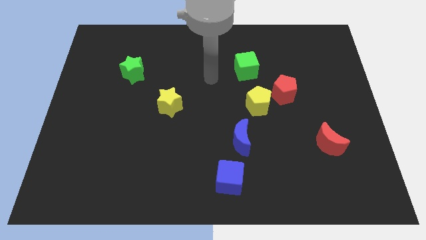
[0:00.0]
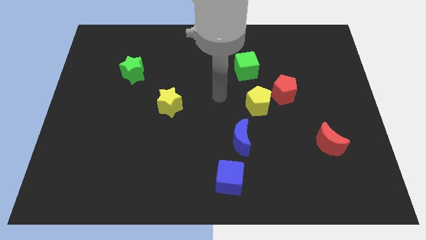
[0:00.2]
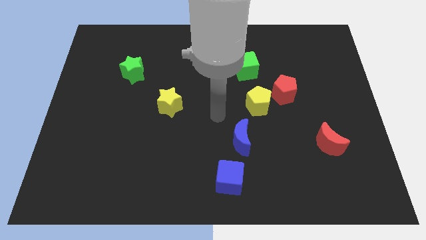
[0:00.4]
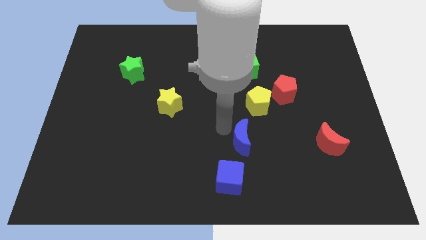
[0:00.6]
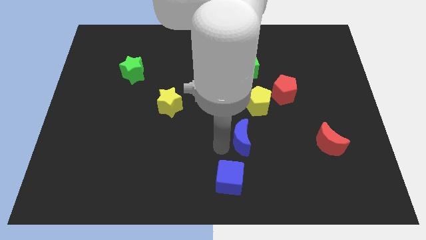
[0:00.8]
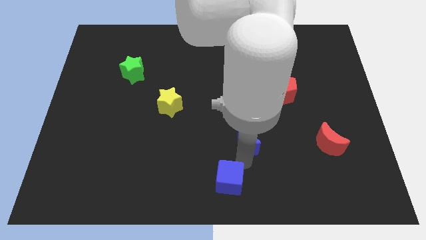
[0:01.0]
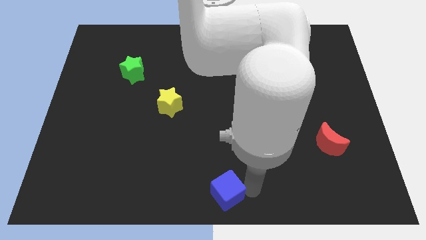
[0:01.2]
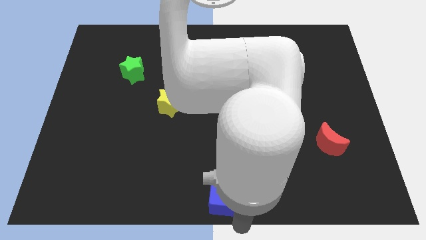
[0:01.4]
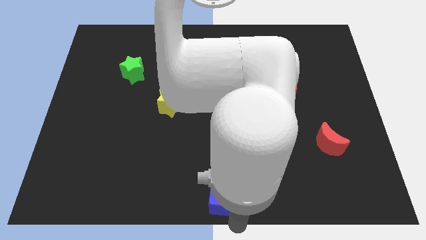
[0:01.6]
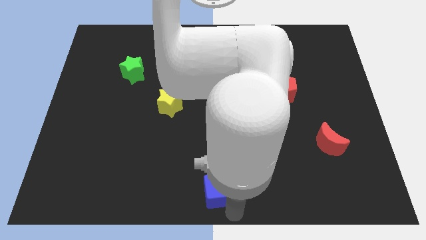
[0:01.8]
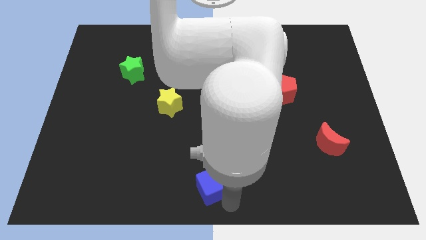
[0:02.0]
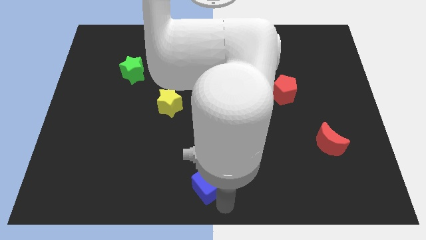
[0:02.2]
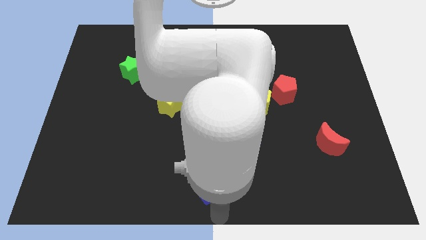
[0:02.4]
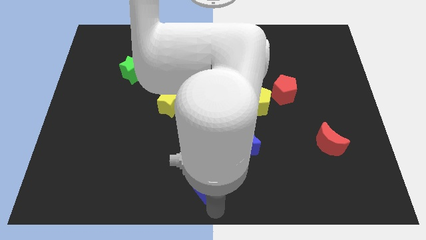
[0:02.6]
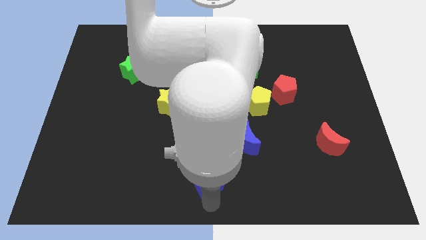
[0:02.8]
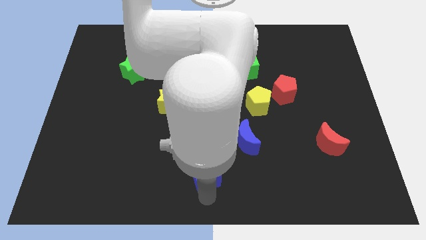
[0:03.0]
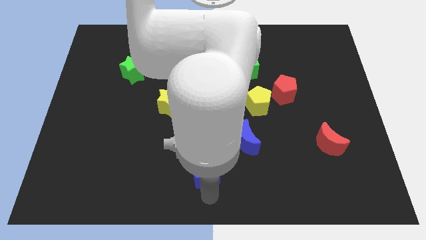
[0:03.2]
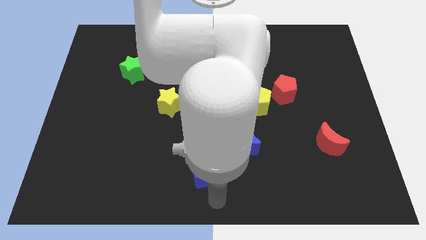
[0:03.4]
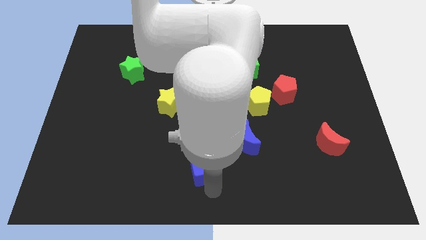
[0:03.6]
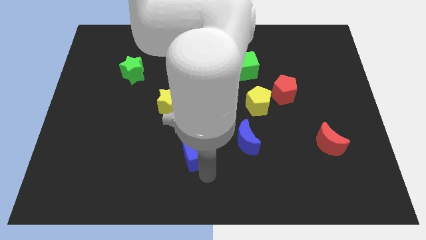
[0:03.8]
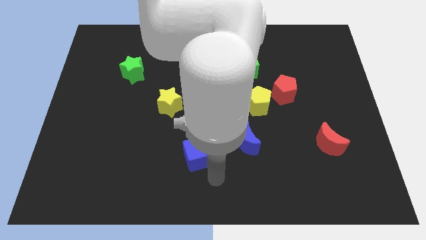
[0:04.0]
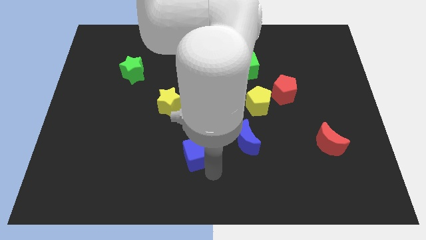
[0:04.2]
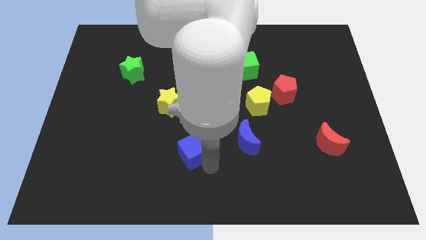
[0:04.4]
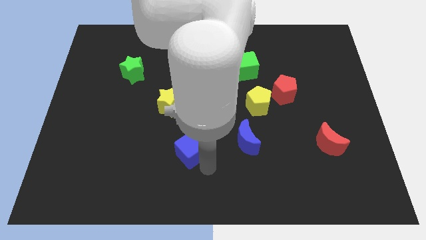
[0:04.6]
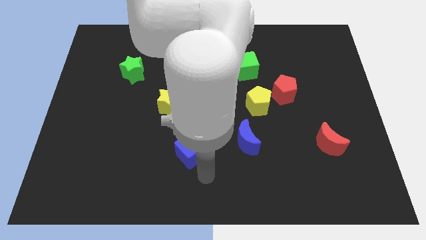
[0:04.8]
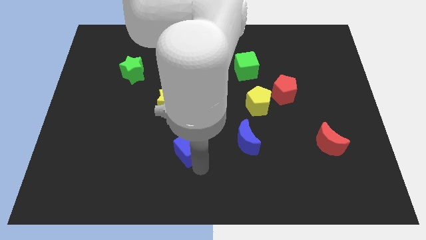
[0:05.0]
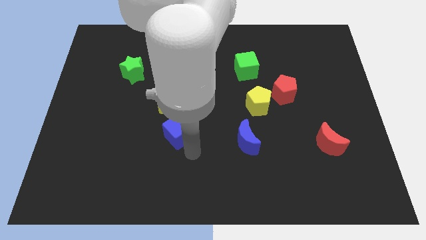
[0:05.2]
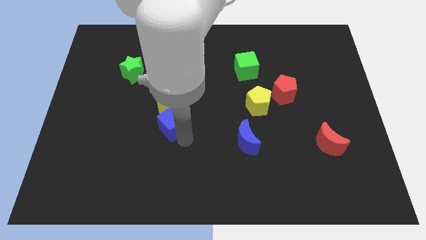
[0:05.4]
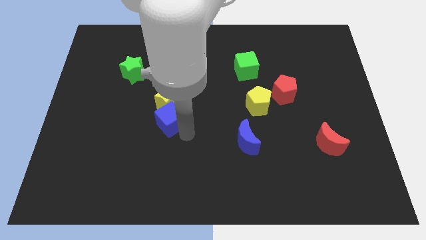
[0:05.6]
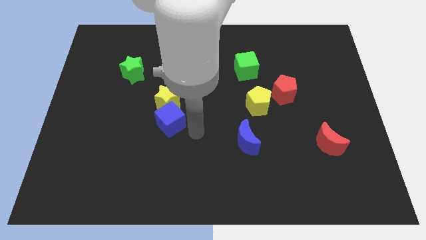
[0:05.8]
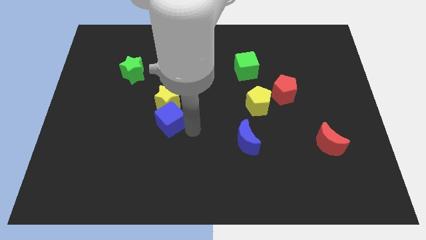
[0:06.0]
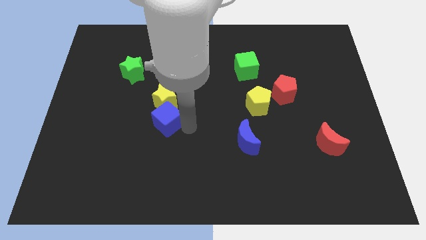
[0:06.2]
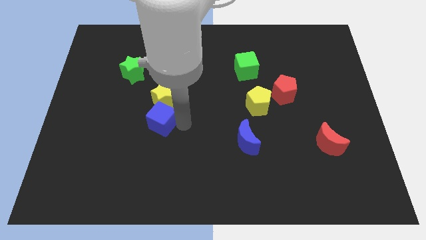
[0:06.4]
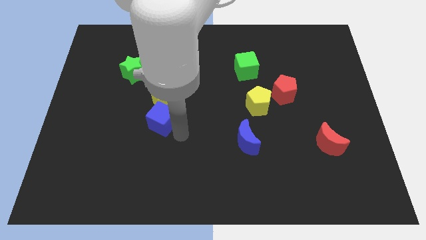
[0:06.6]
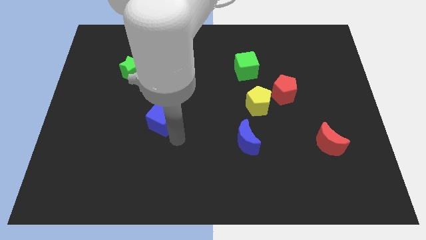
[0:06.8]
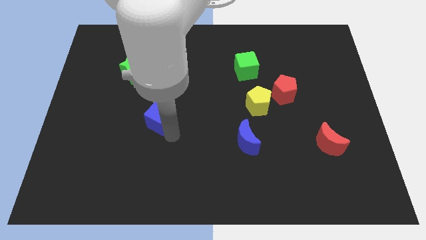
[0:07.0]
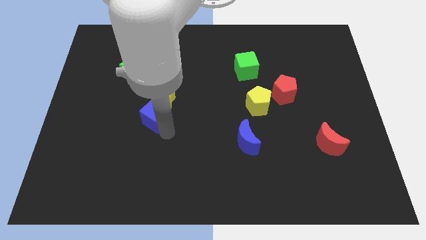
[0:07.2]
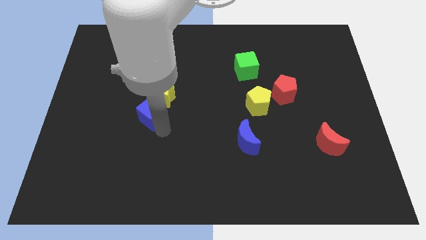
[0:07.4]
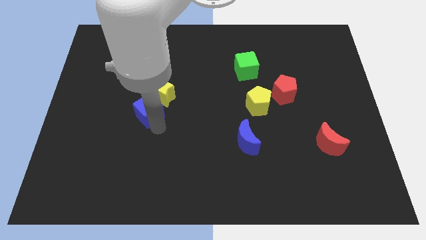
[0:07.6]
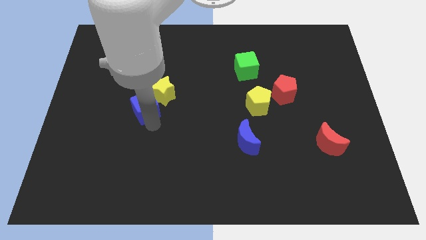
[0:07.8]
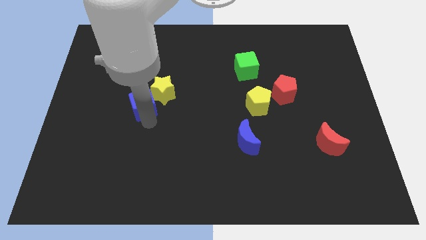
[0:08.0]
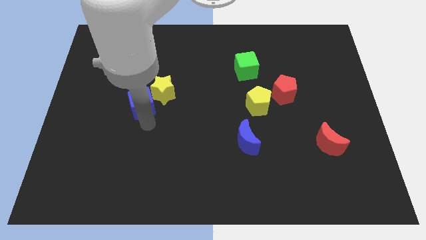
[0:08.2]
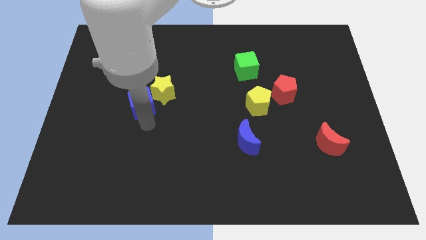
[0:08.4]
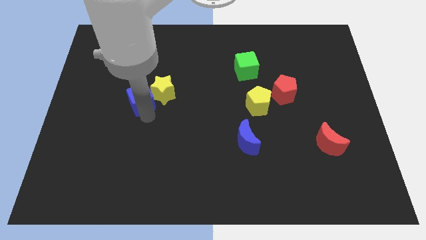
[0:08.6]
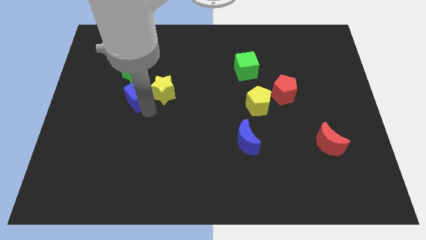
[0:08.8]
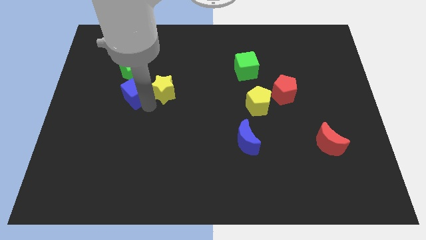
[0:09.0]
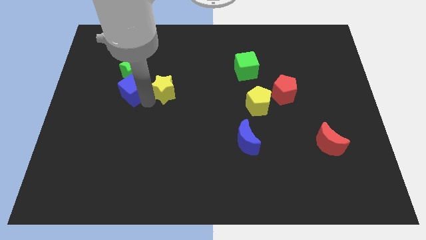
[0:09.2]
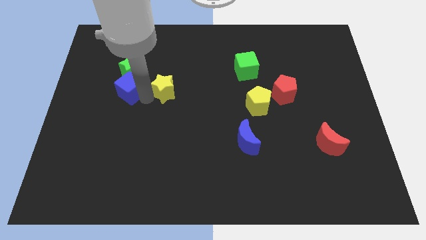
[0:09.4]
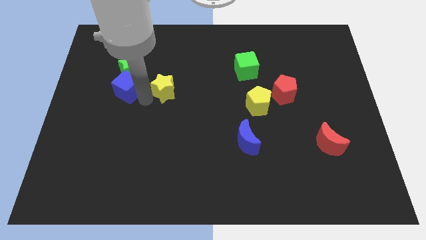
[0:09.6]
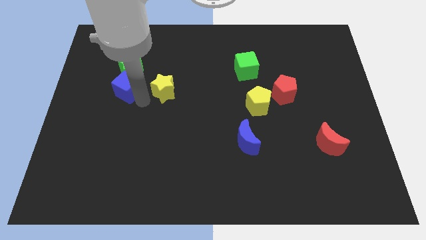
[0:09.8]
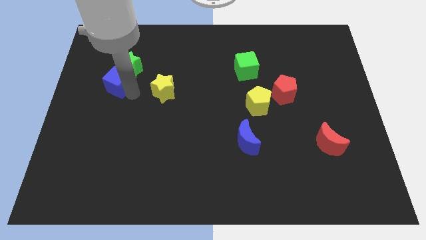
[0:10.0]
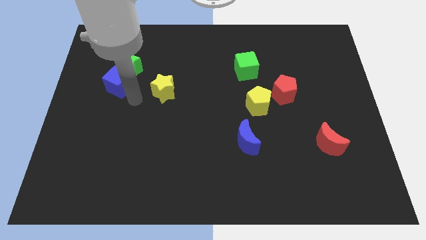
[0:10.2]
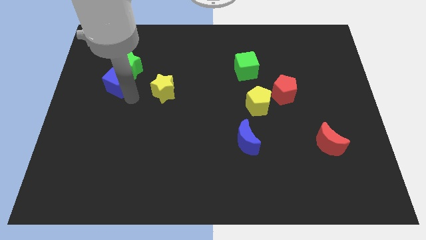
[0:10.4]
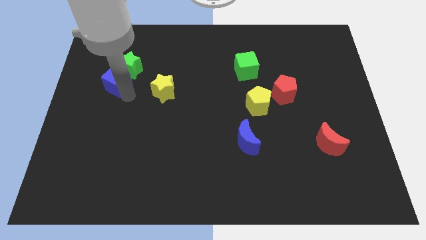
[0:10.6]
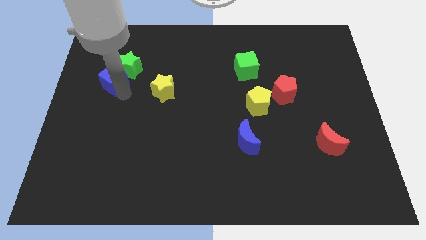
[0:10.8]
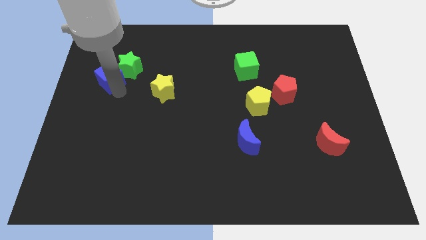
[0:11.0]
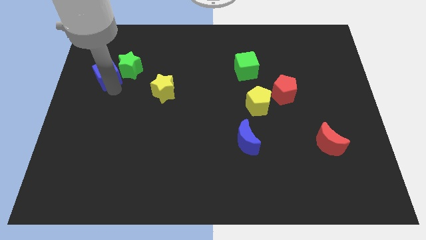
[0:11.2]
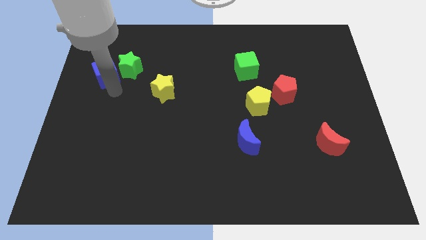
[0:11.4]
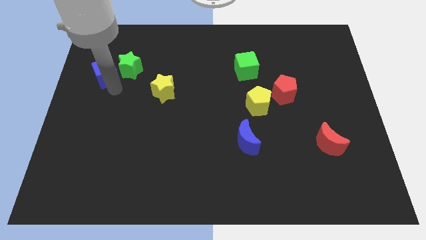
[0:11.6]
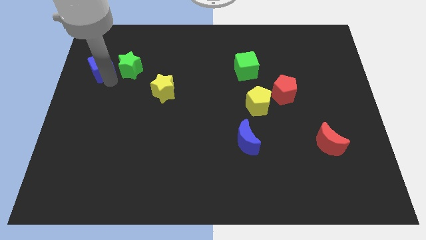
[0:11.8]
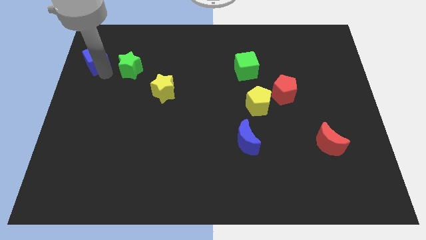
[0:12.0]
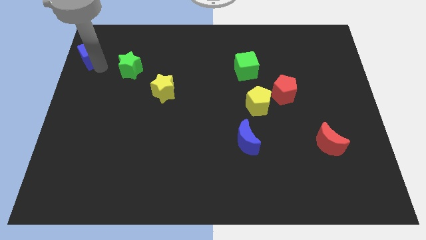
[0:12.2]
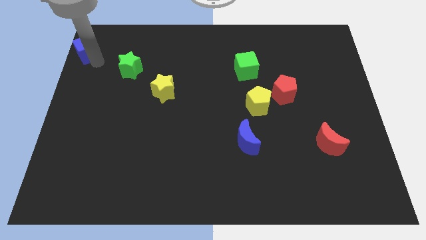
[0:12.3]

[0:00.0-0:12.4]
move the blue cube to the top left corner
